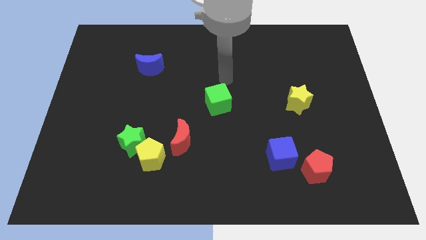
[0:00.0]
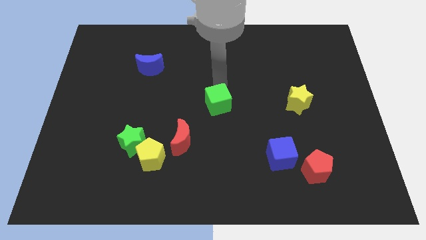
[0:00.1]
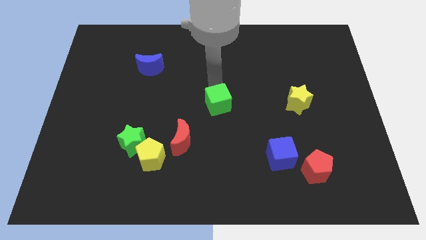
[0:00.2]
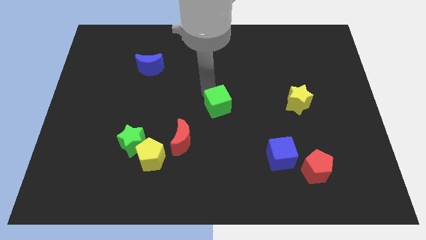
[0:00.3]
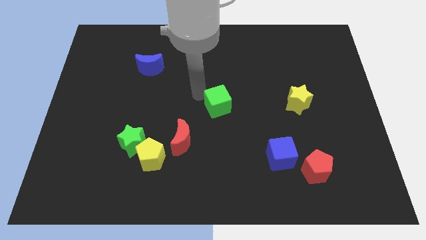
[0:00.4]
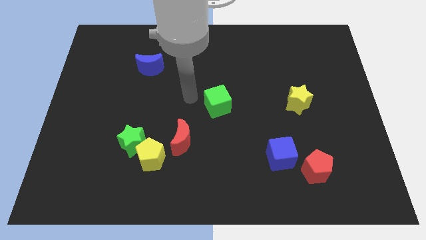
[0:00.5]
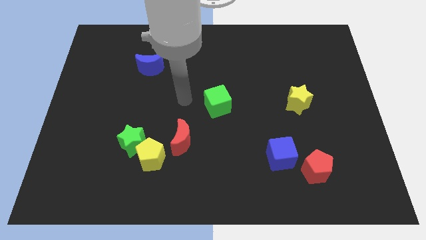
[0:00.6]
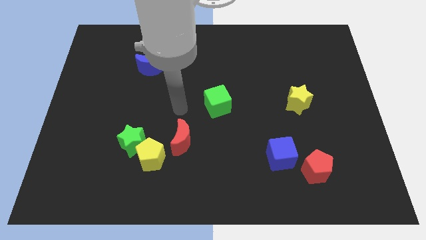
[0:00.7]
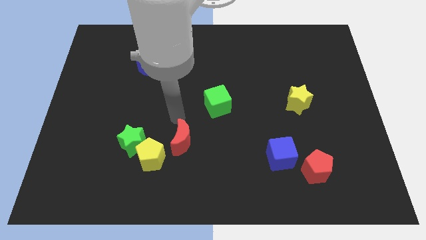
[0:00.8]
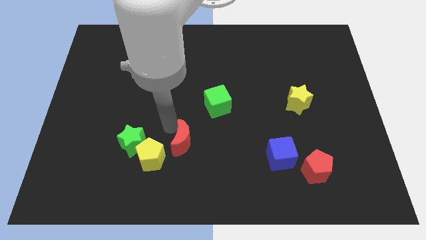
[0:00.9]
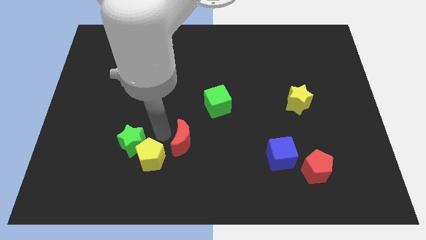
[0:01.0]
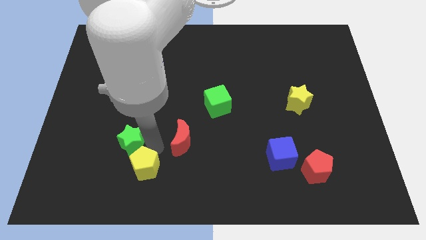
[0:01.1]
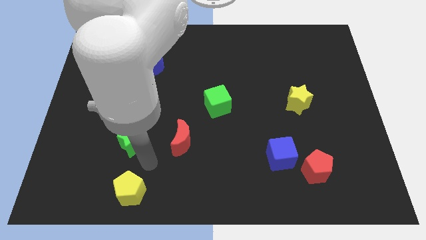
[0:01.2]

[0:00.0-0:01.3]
separate the green star from the yellow pentagon

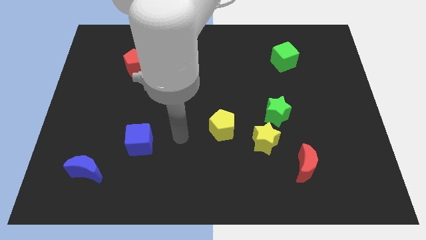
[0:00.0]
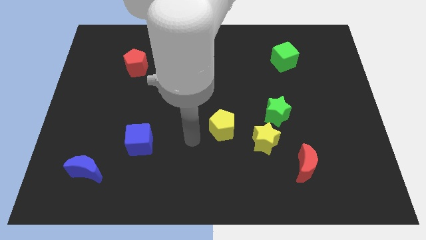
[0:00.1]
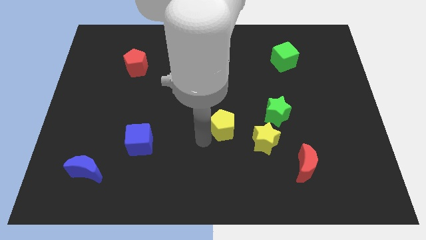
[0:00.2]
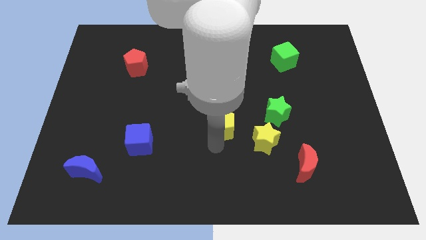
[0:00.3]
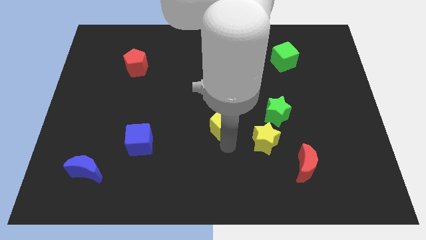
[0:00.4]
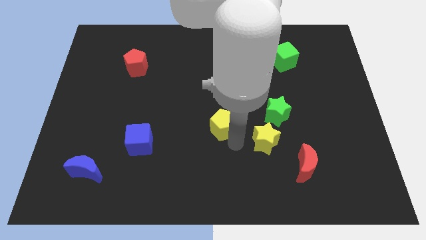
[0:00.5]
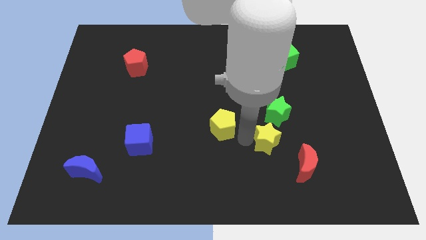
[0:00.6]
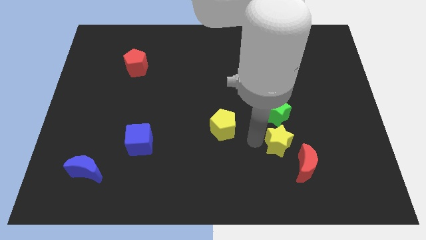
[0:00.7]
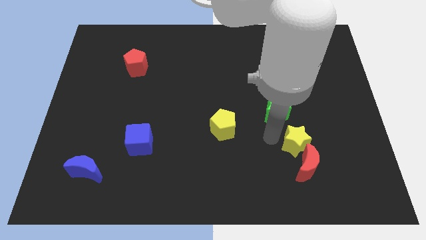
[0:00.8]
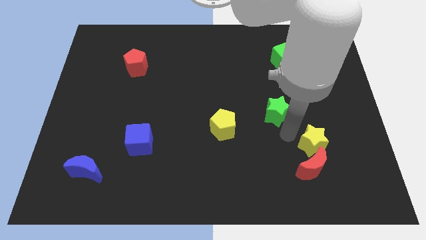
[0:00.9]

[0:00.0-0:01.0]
move the green star away from the yellow star

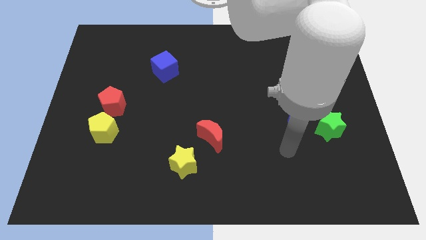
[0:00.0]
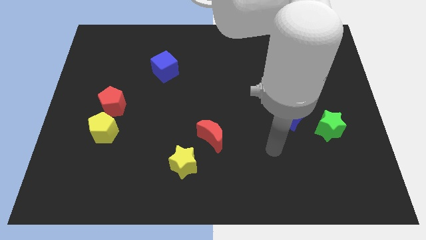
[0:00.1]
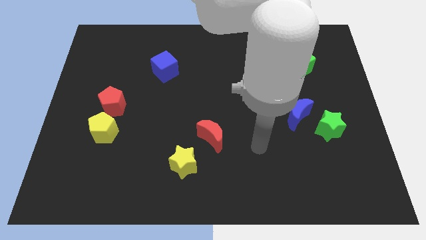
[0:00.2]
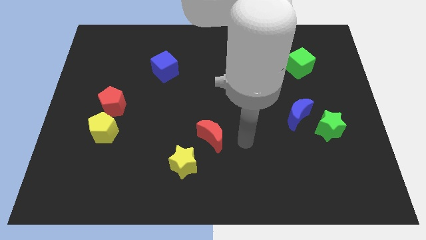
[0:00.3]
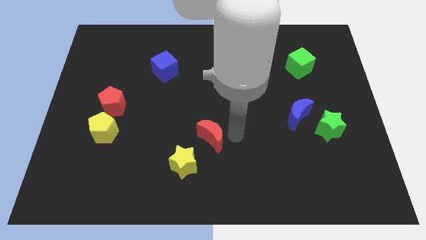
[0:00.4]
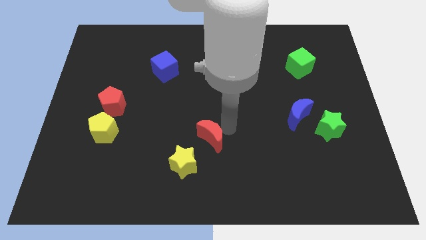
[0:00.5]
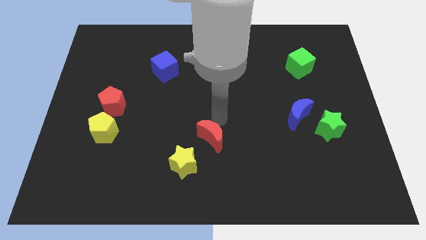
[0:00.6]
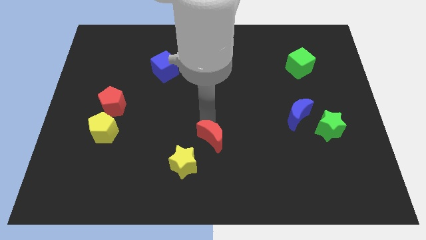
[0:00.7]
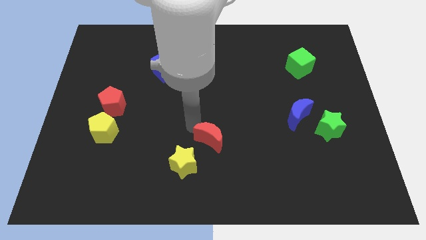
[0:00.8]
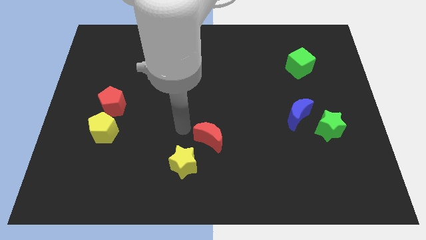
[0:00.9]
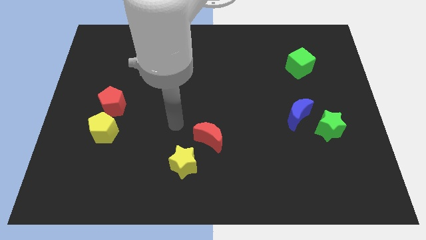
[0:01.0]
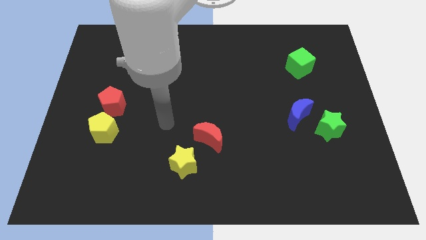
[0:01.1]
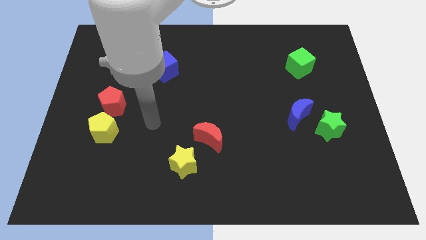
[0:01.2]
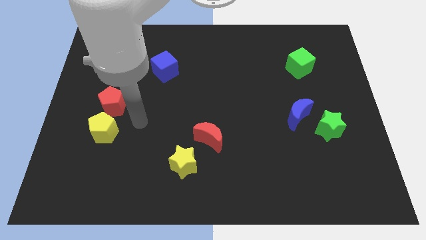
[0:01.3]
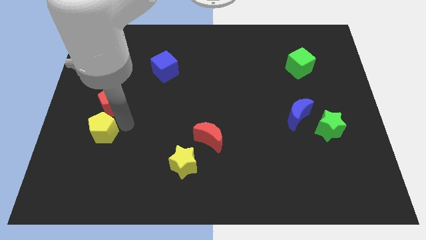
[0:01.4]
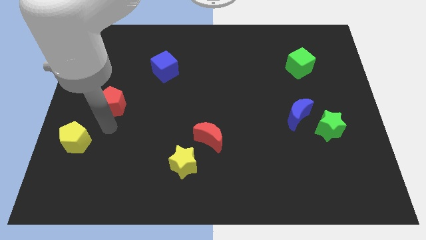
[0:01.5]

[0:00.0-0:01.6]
separate the red pentagon from the yellow pentagon

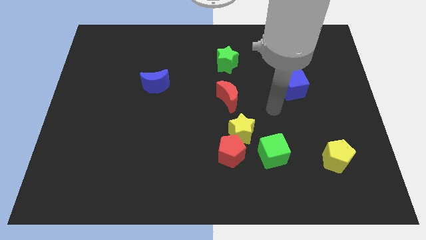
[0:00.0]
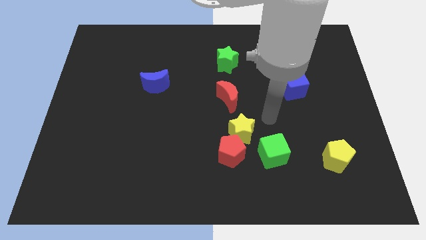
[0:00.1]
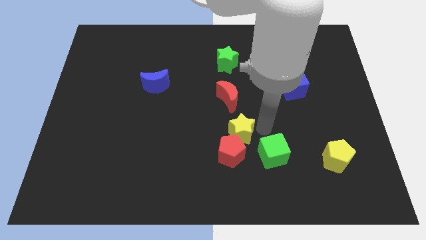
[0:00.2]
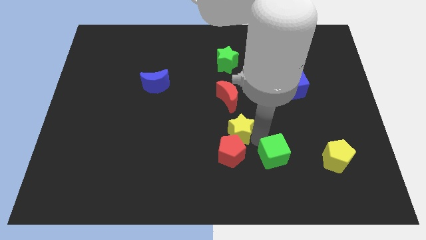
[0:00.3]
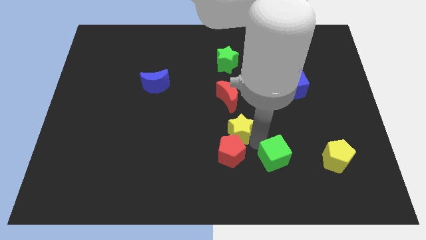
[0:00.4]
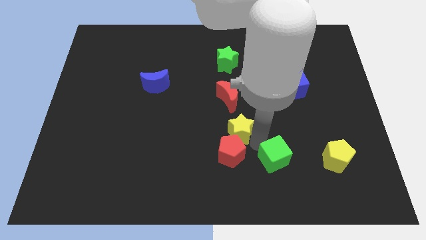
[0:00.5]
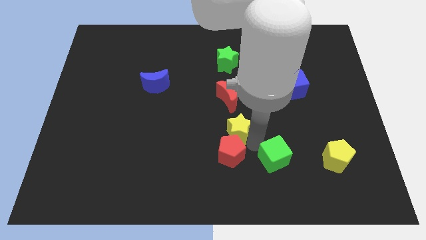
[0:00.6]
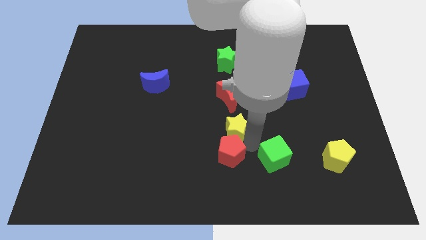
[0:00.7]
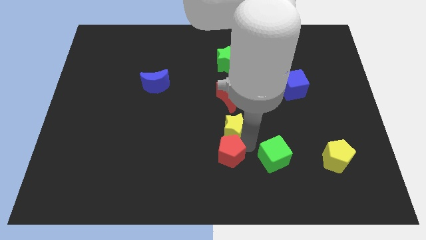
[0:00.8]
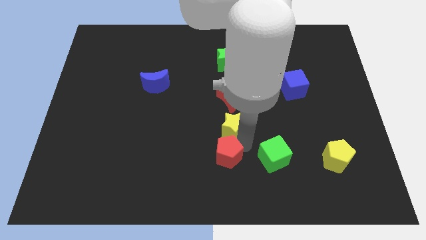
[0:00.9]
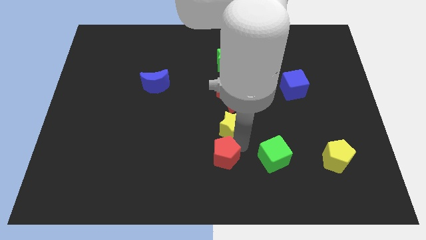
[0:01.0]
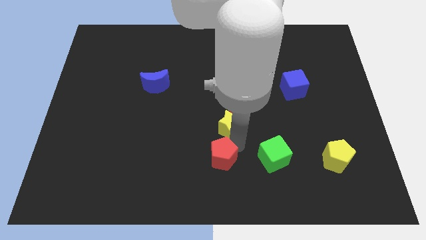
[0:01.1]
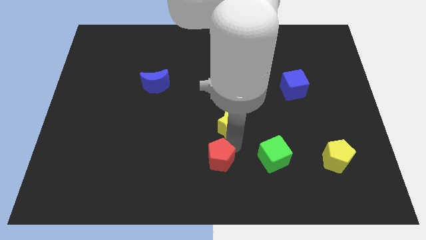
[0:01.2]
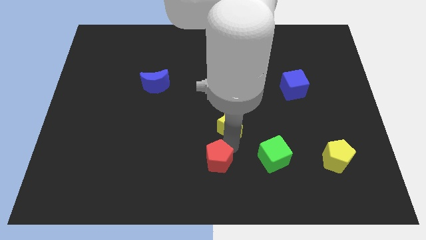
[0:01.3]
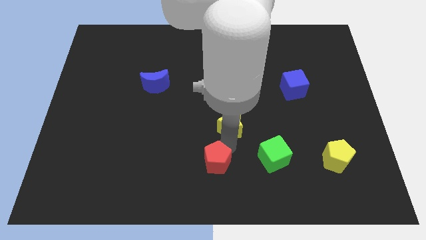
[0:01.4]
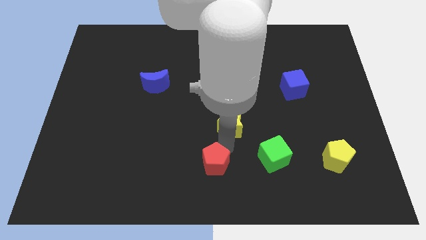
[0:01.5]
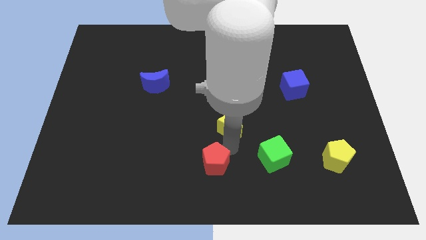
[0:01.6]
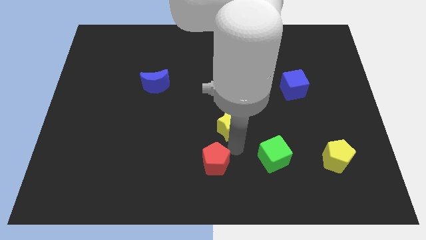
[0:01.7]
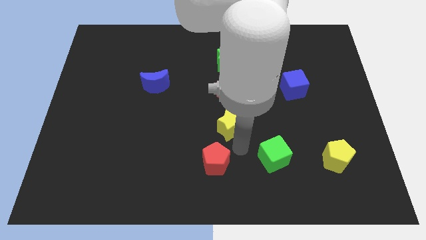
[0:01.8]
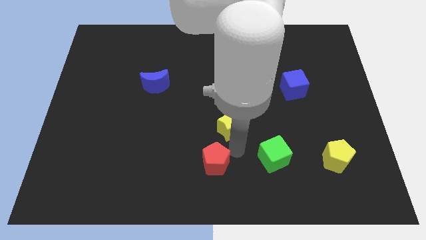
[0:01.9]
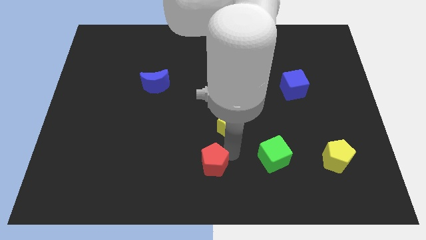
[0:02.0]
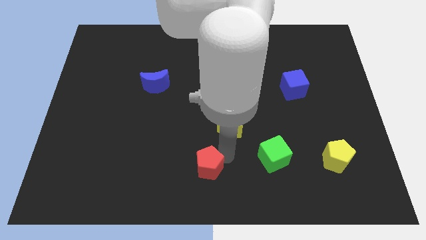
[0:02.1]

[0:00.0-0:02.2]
move the red pentagon away from the yellow star and green cube

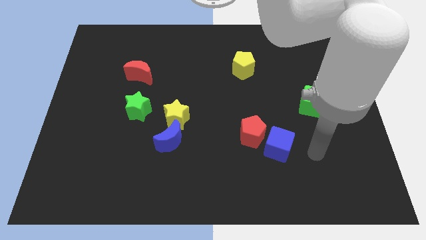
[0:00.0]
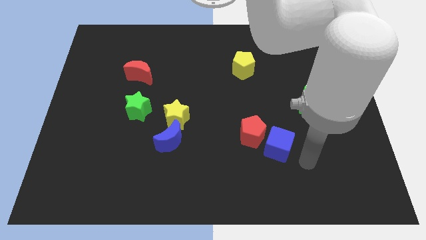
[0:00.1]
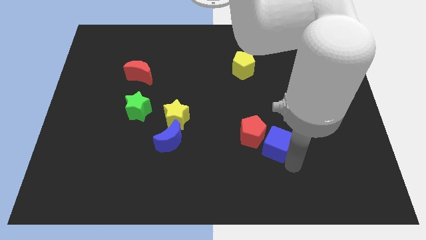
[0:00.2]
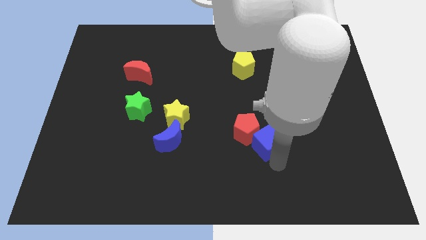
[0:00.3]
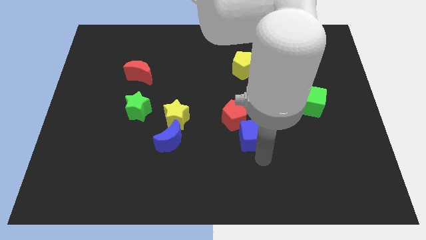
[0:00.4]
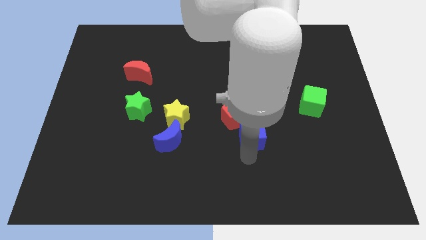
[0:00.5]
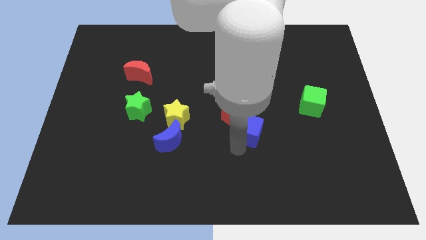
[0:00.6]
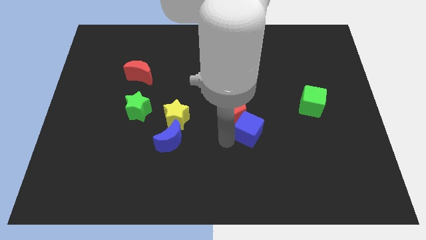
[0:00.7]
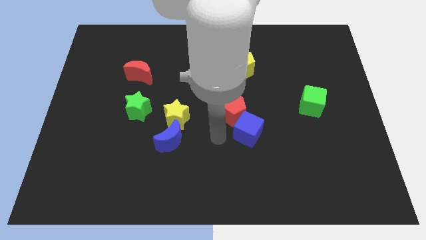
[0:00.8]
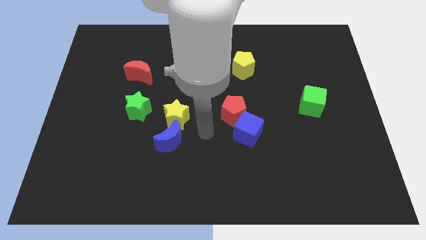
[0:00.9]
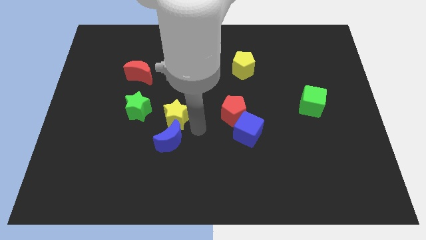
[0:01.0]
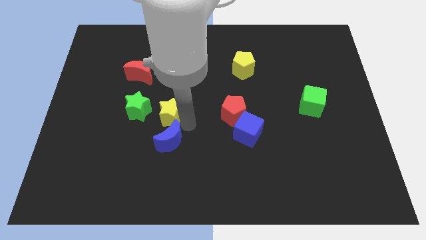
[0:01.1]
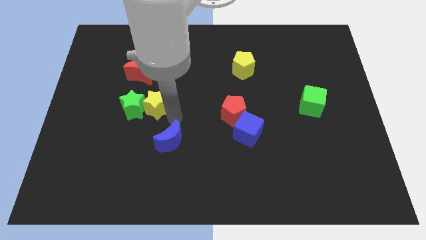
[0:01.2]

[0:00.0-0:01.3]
pull the blue moon apart from the yellow star

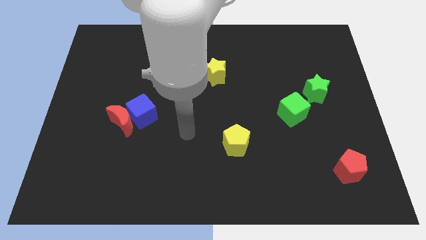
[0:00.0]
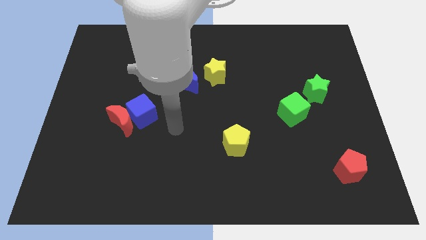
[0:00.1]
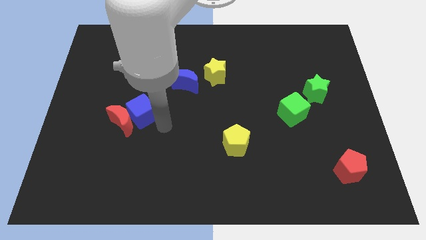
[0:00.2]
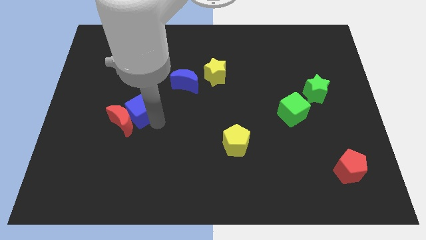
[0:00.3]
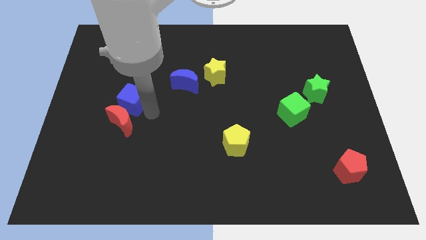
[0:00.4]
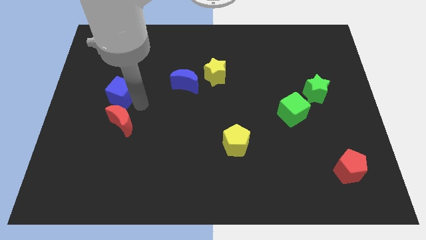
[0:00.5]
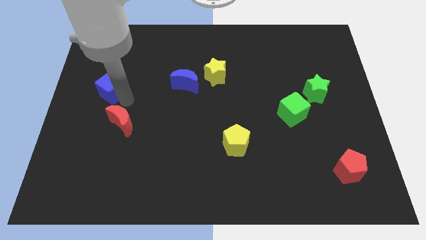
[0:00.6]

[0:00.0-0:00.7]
separate the red moon from the blue cube

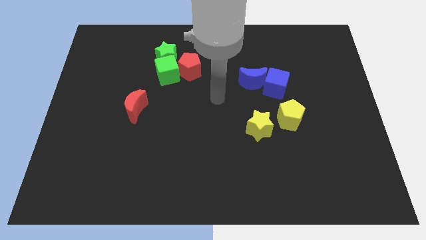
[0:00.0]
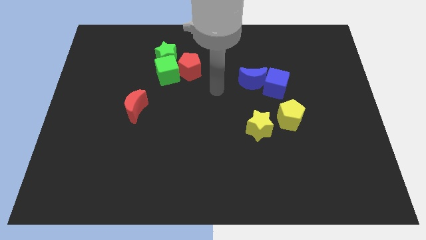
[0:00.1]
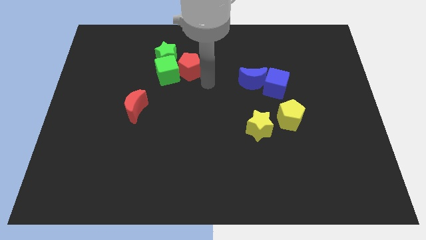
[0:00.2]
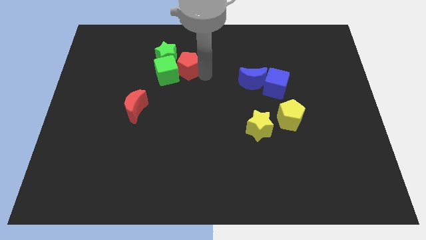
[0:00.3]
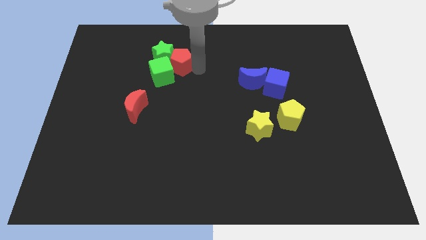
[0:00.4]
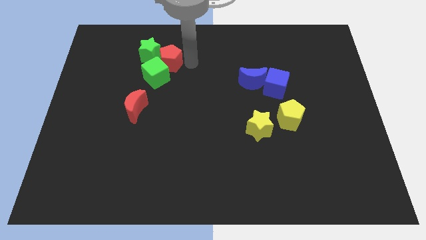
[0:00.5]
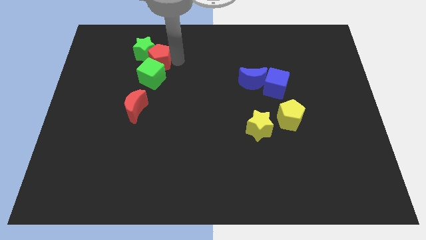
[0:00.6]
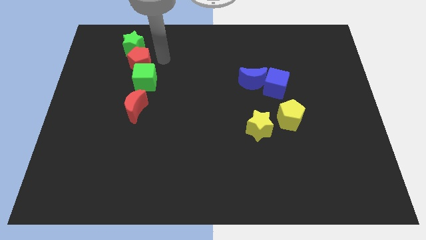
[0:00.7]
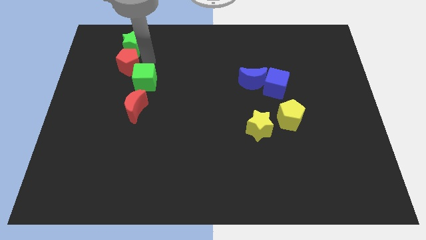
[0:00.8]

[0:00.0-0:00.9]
separate the green cube from the green star and red pentagon
